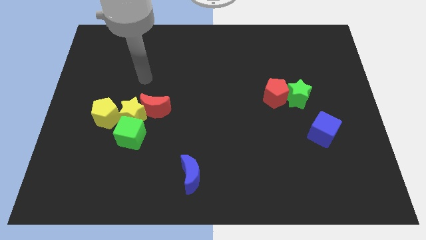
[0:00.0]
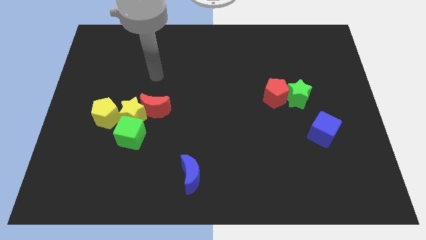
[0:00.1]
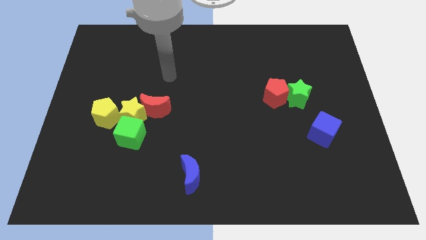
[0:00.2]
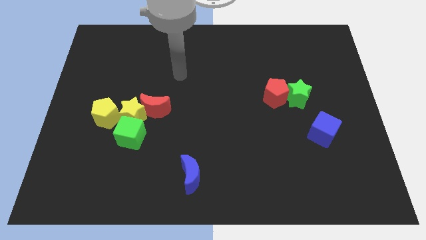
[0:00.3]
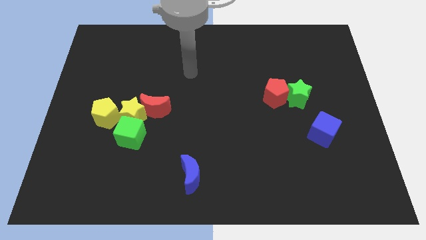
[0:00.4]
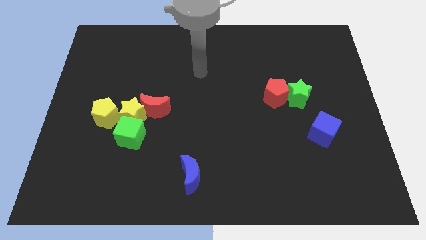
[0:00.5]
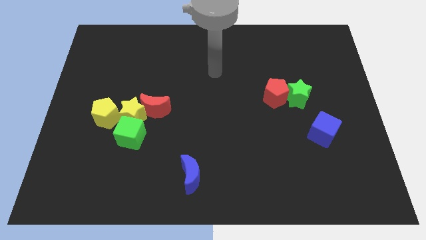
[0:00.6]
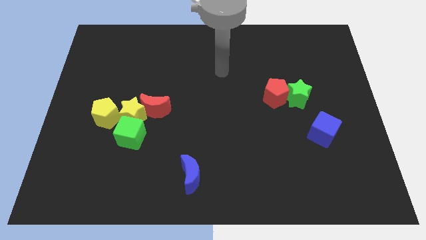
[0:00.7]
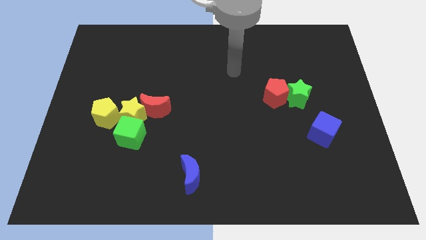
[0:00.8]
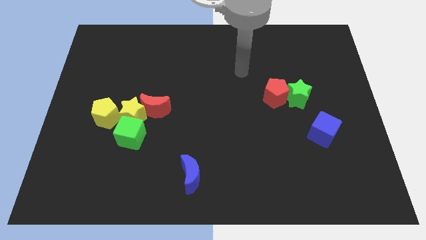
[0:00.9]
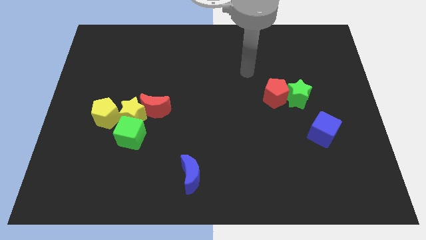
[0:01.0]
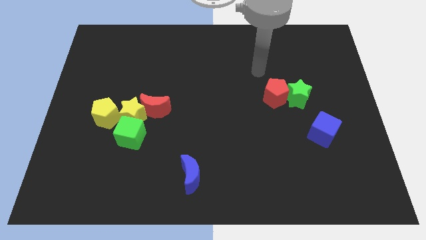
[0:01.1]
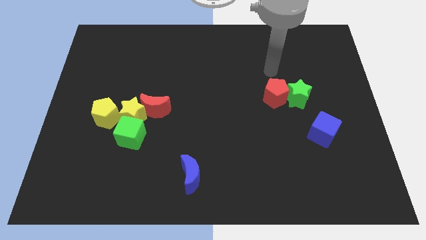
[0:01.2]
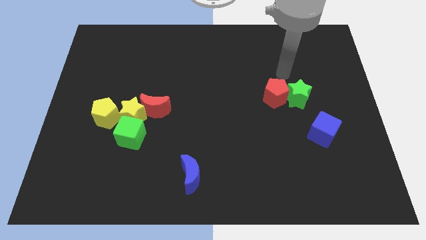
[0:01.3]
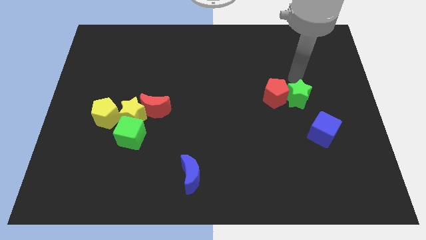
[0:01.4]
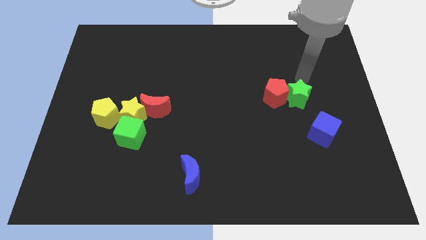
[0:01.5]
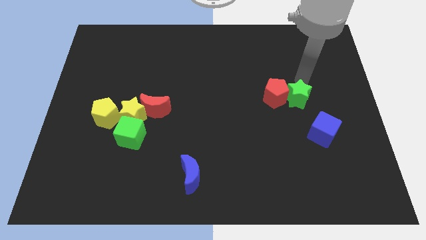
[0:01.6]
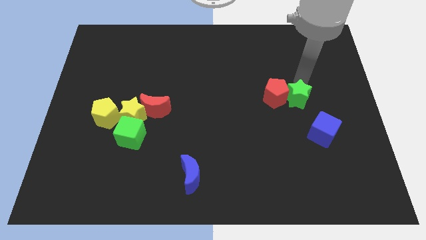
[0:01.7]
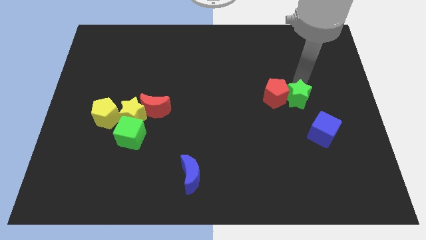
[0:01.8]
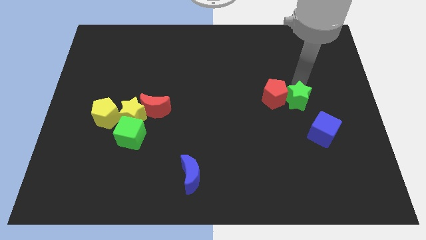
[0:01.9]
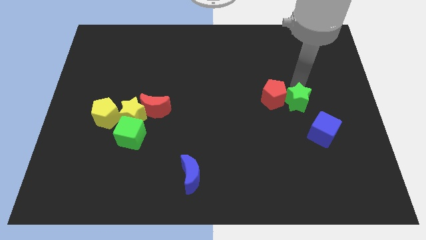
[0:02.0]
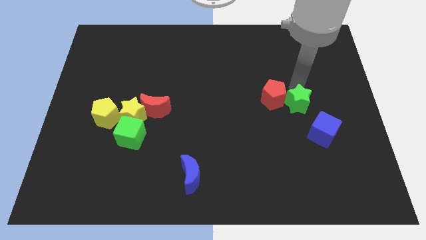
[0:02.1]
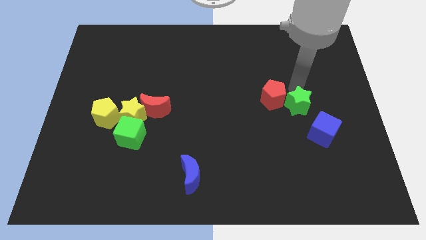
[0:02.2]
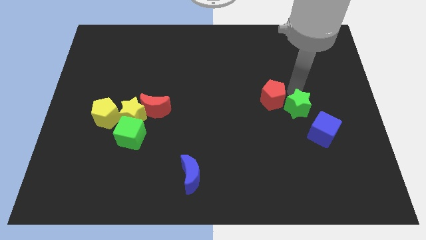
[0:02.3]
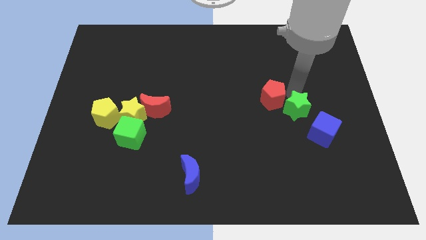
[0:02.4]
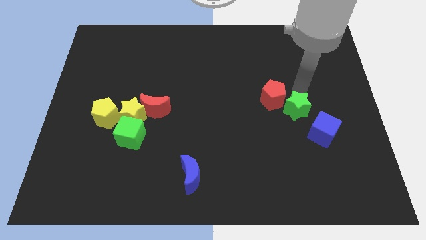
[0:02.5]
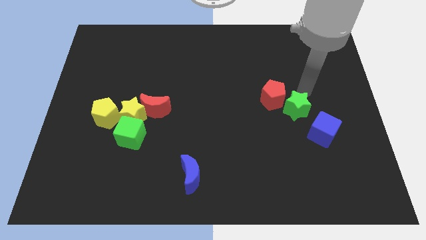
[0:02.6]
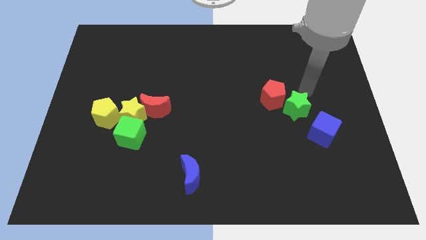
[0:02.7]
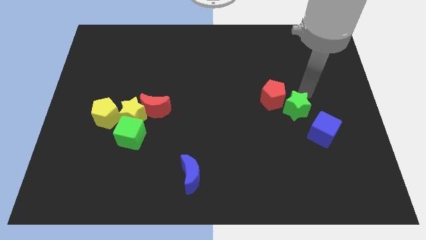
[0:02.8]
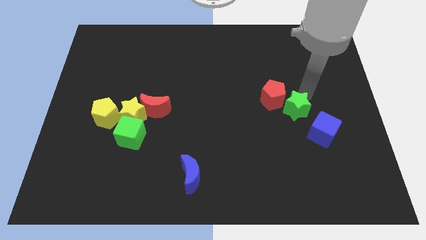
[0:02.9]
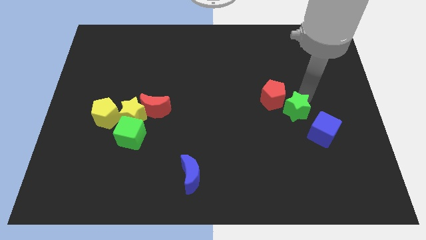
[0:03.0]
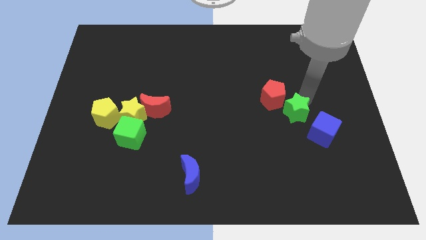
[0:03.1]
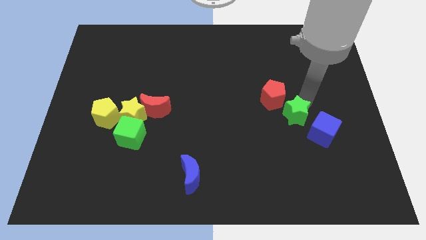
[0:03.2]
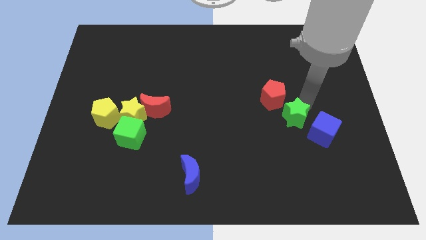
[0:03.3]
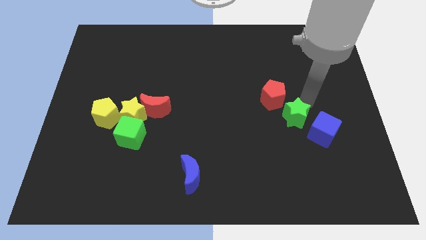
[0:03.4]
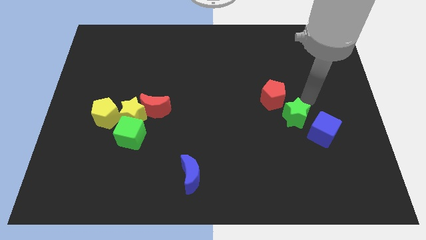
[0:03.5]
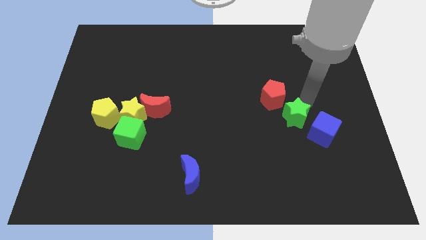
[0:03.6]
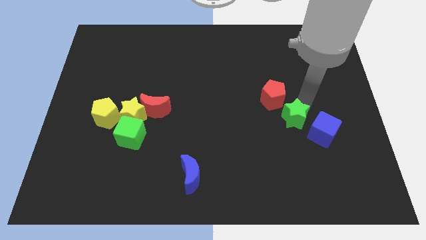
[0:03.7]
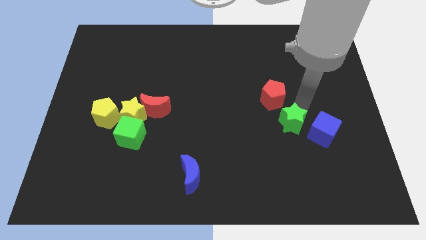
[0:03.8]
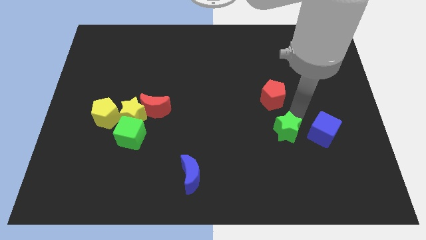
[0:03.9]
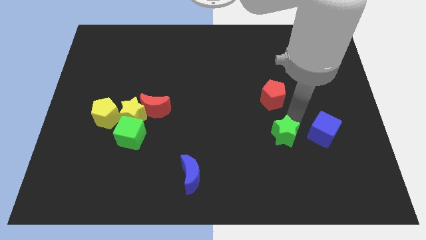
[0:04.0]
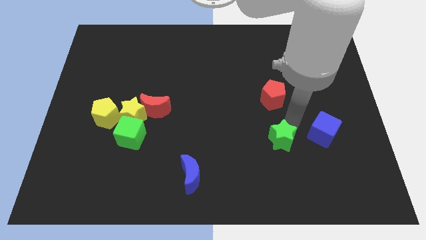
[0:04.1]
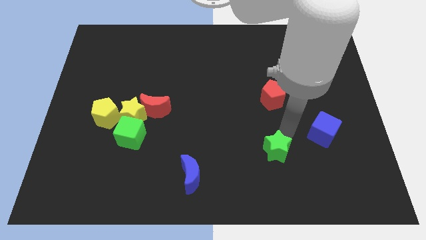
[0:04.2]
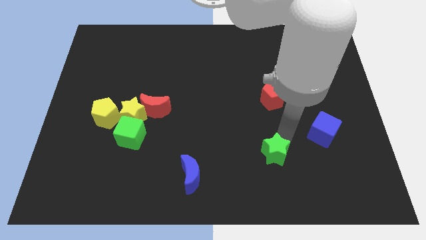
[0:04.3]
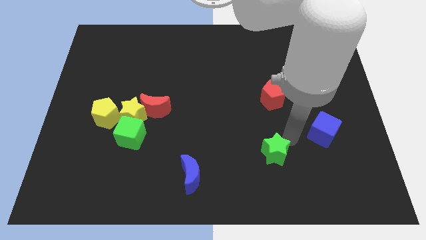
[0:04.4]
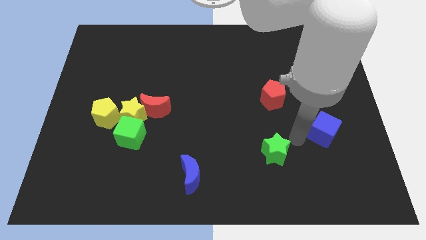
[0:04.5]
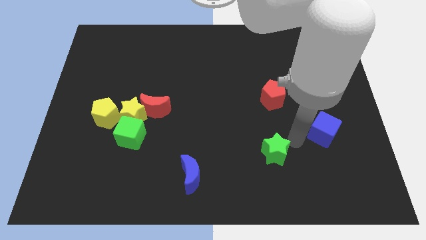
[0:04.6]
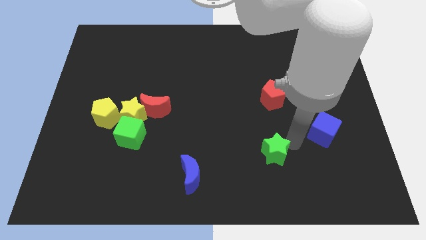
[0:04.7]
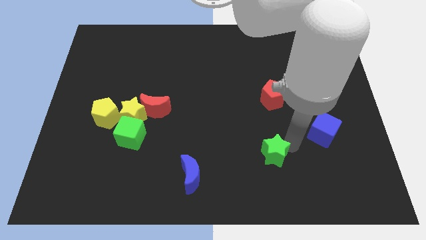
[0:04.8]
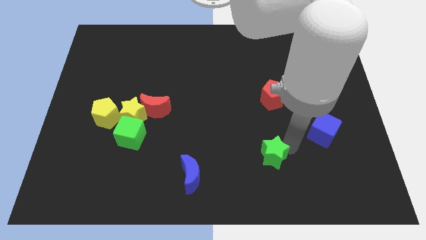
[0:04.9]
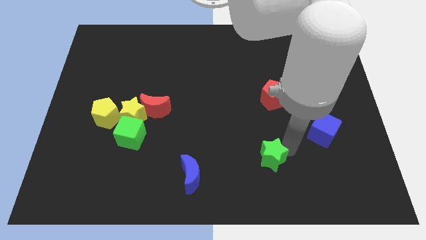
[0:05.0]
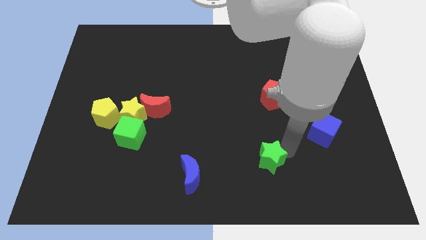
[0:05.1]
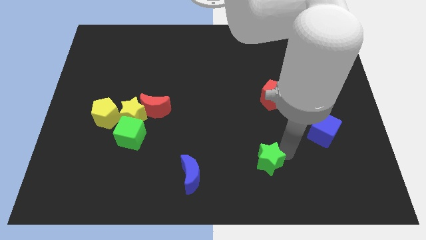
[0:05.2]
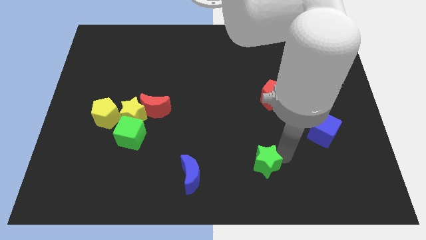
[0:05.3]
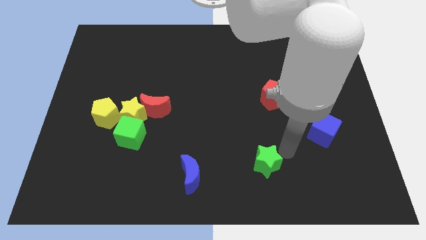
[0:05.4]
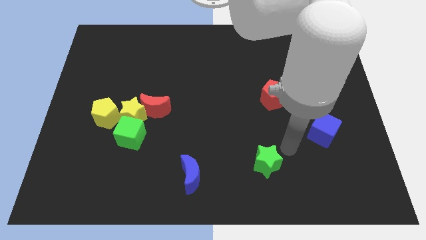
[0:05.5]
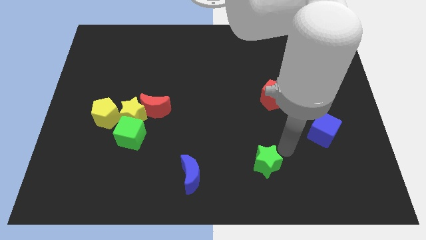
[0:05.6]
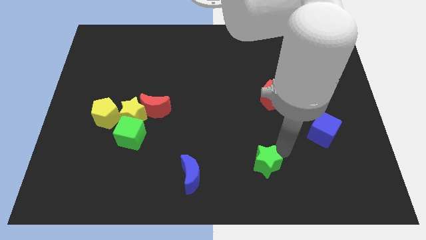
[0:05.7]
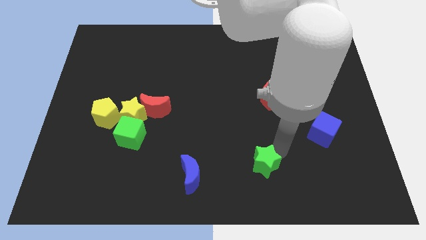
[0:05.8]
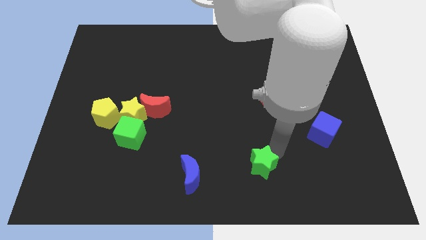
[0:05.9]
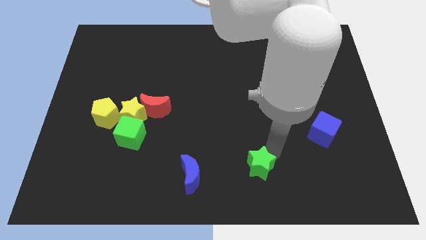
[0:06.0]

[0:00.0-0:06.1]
slide the green star to the bottom side
